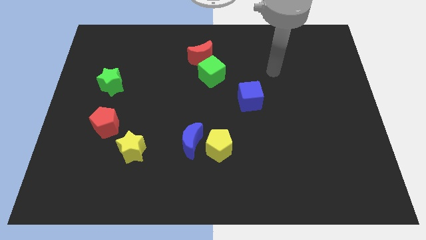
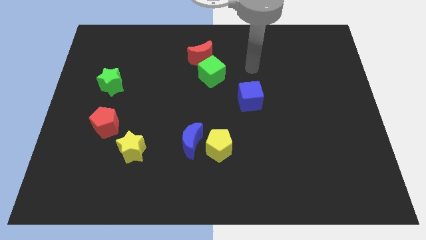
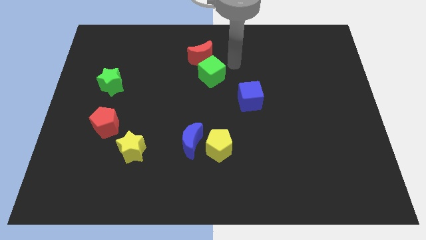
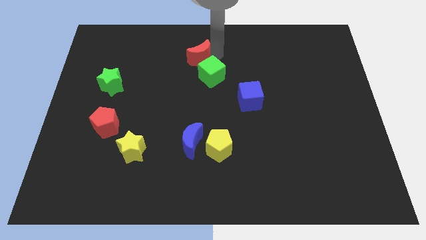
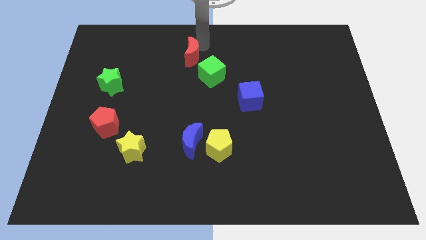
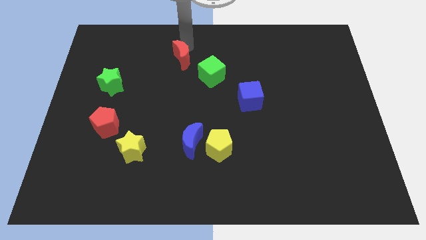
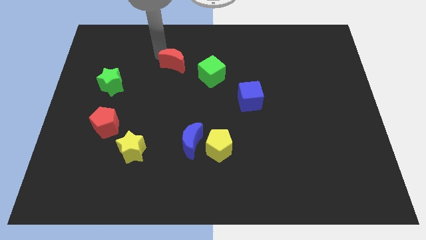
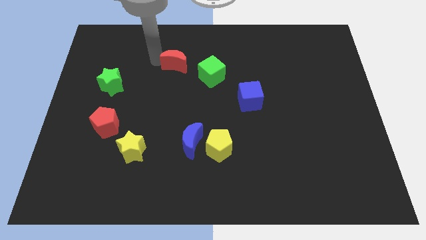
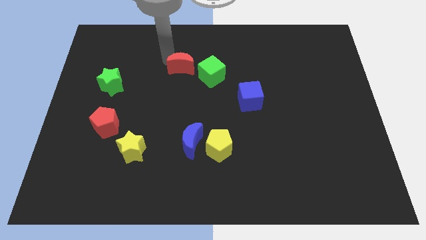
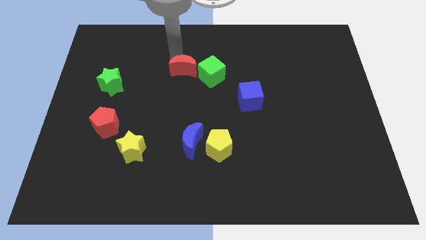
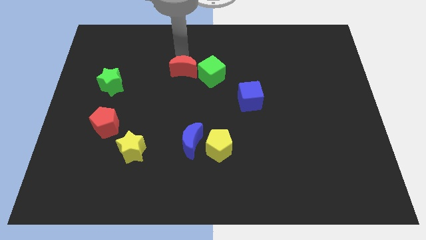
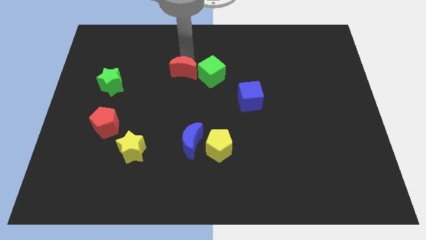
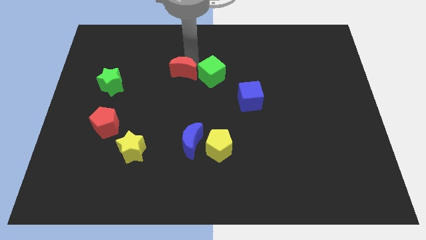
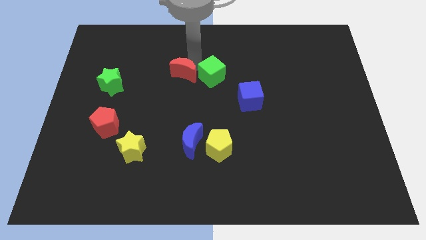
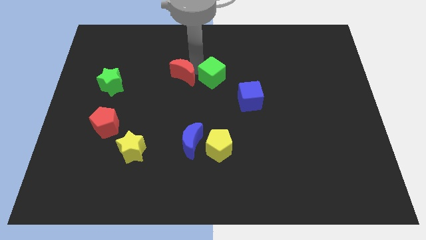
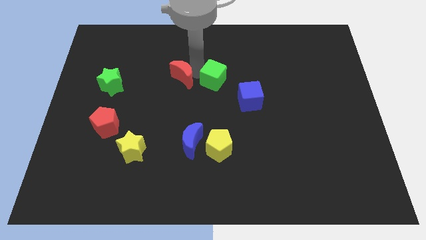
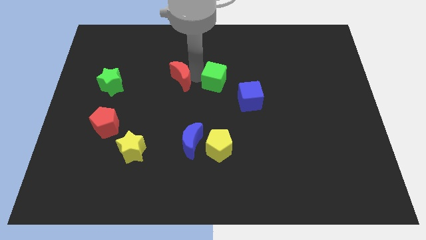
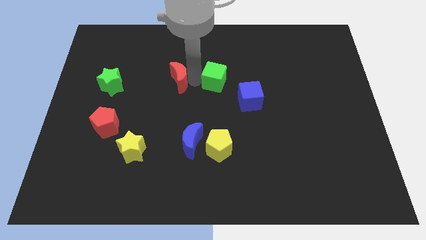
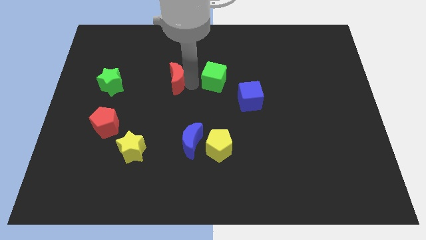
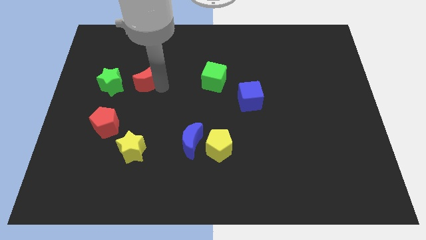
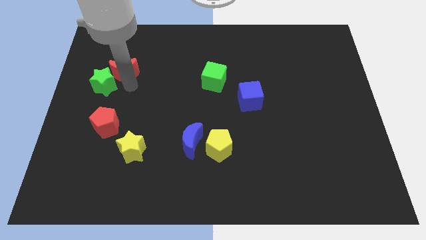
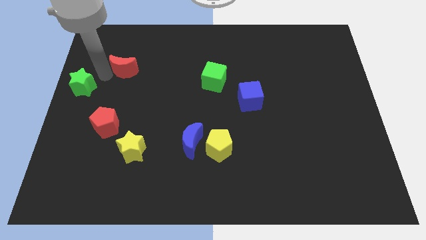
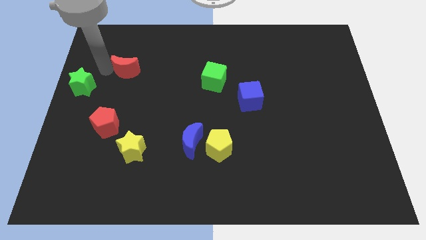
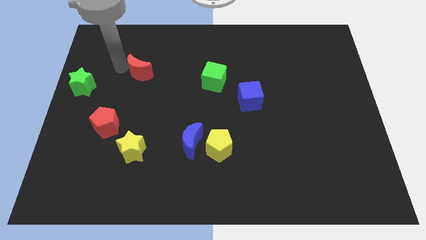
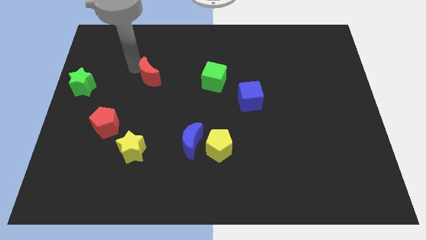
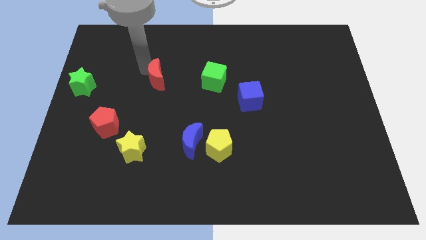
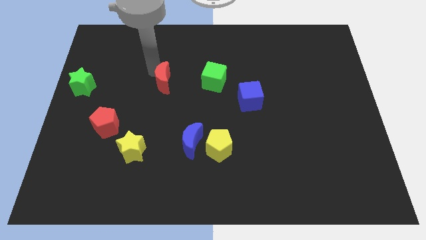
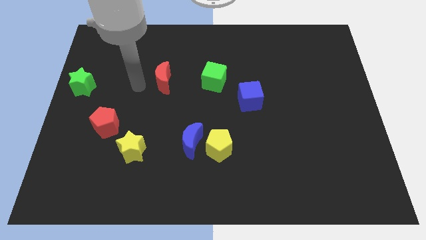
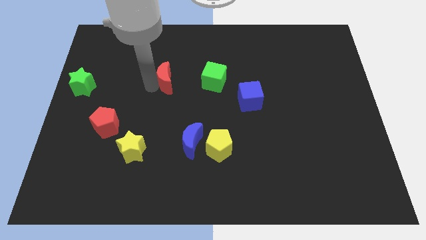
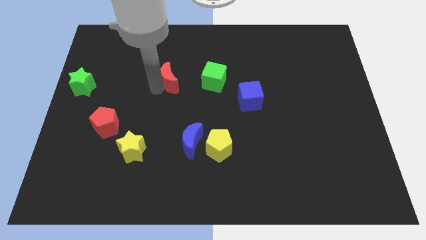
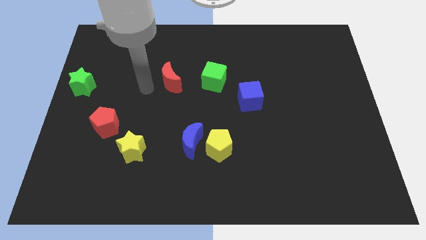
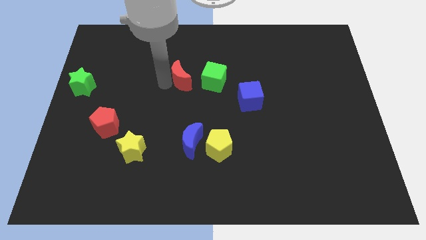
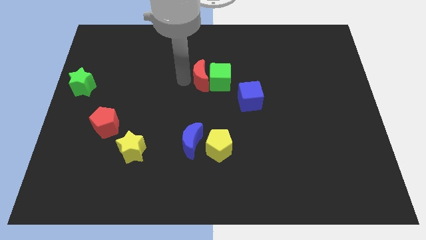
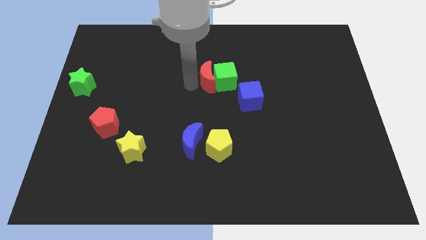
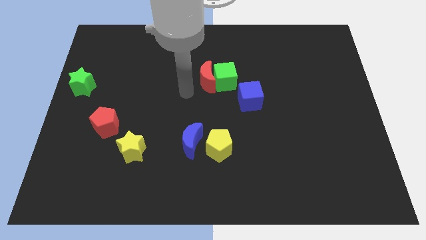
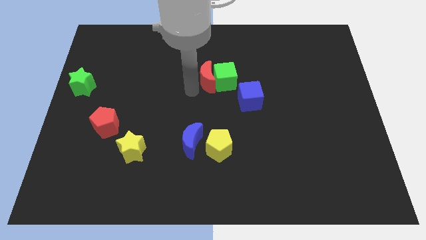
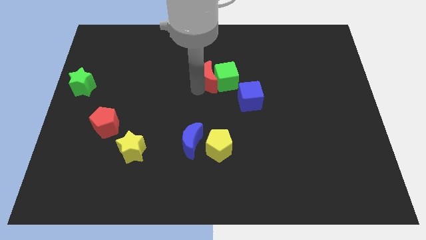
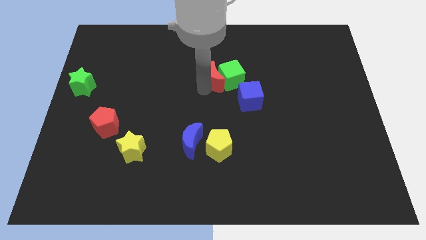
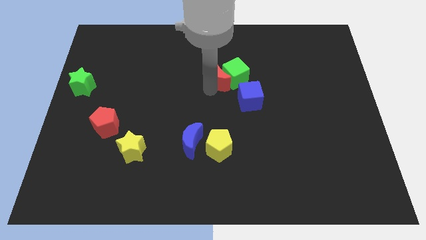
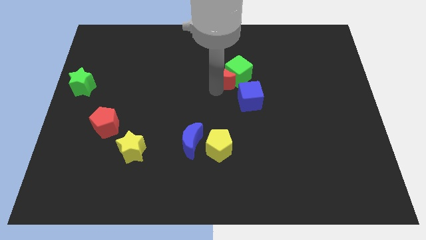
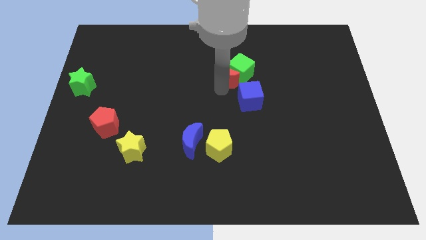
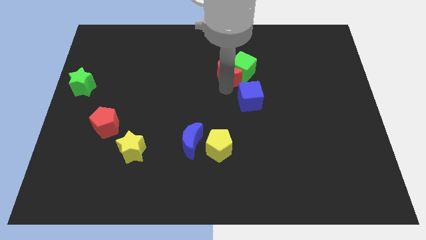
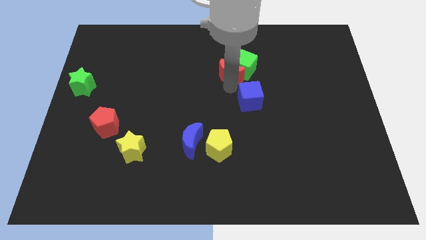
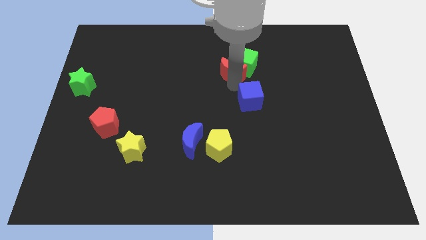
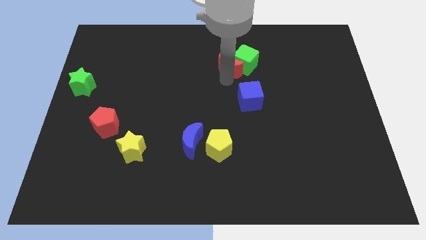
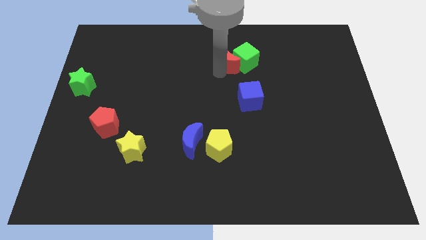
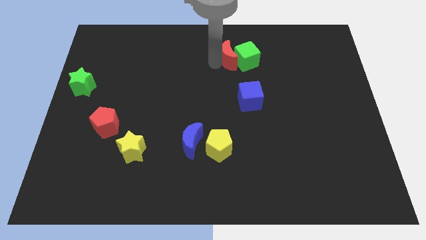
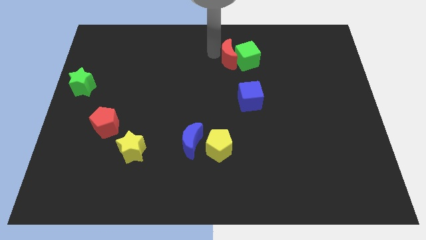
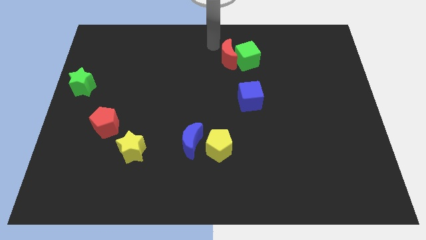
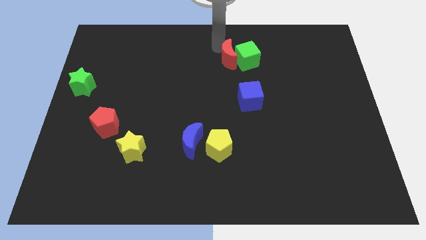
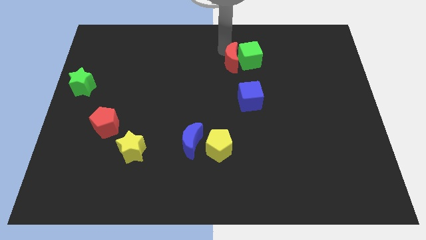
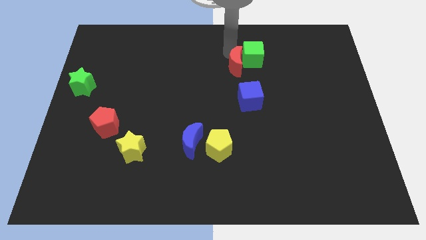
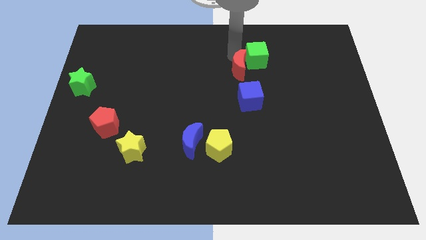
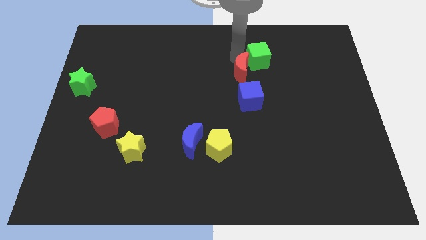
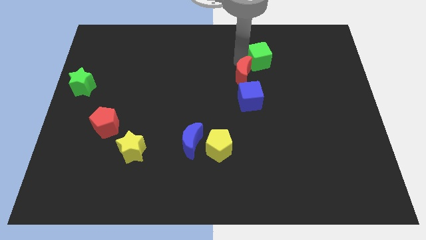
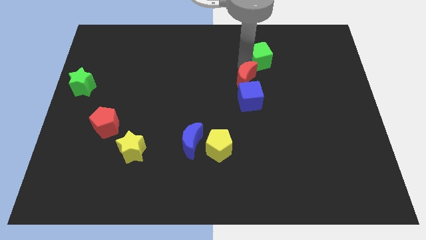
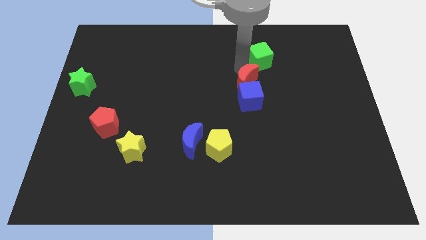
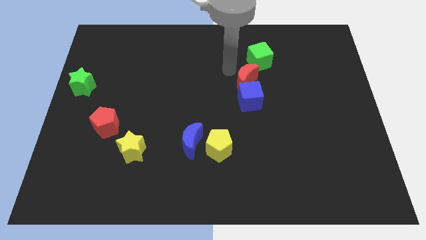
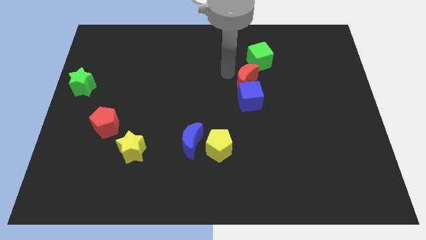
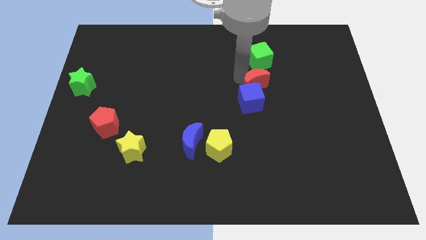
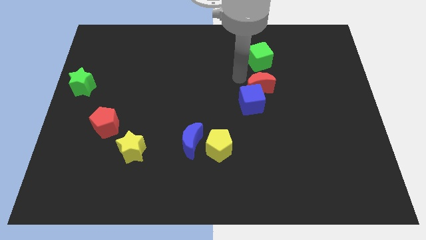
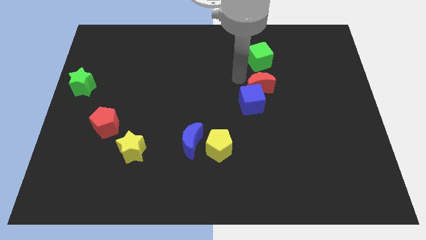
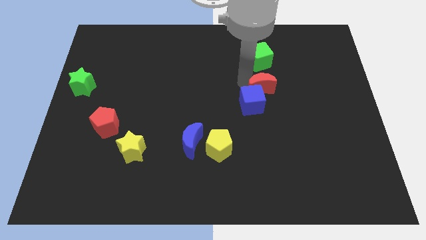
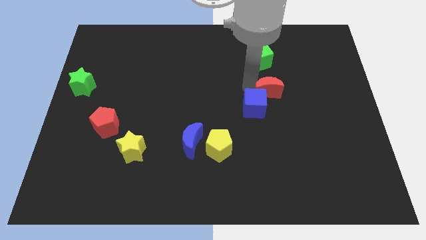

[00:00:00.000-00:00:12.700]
move the red moon to the right of the blue cube
